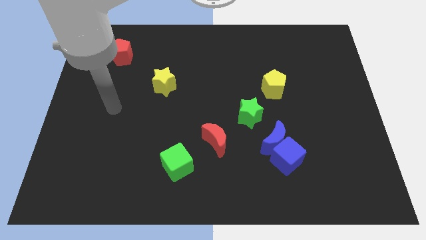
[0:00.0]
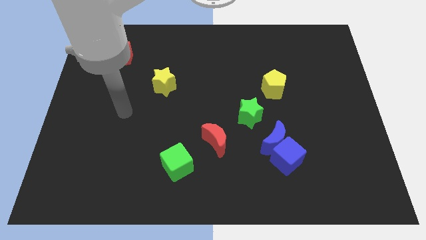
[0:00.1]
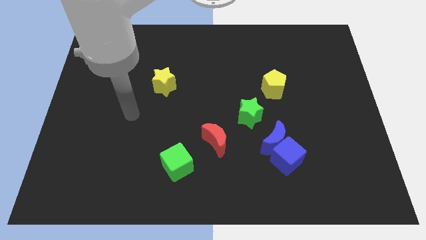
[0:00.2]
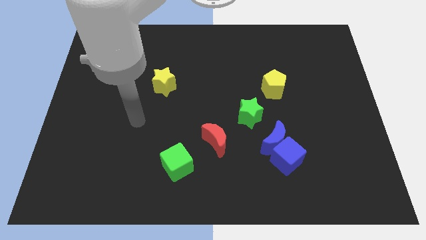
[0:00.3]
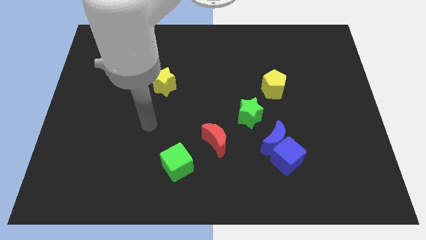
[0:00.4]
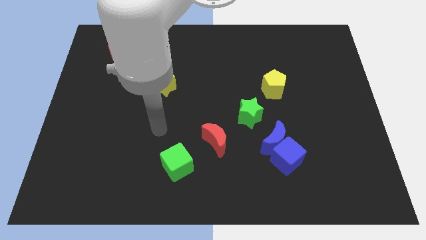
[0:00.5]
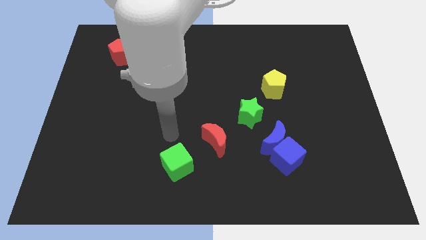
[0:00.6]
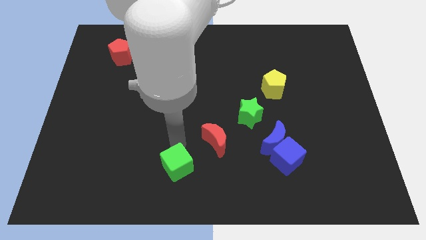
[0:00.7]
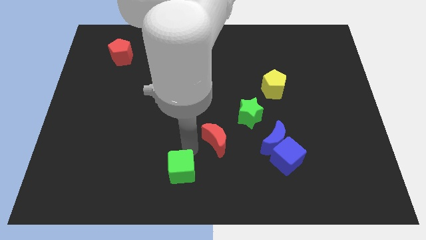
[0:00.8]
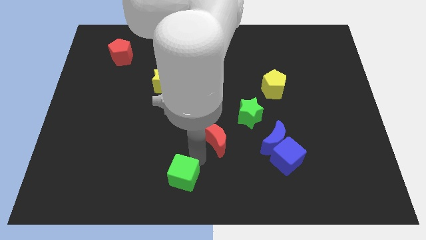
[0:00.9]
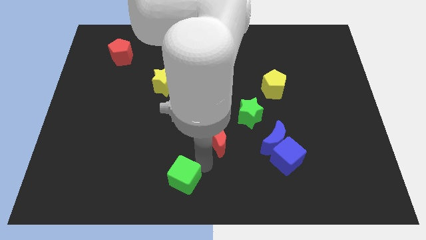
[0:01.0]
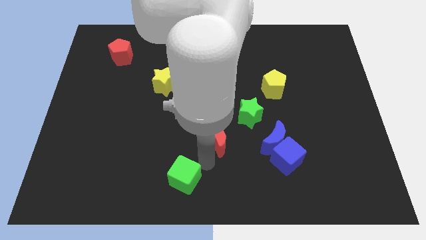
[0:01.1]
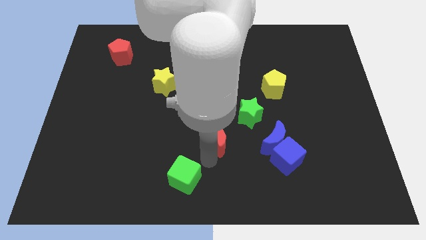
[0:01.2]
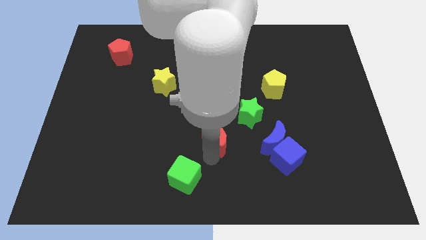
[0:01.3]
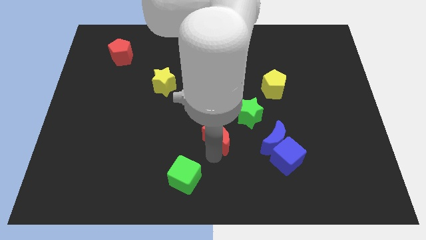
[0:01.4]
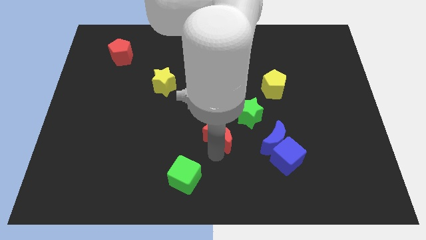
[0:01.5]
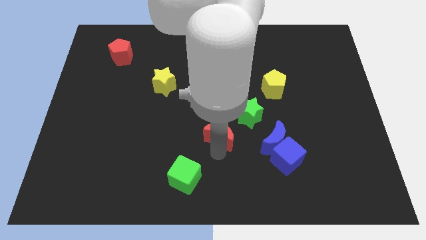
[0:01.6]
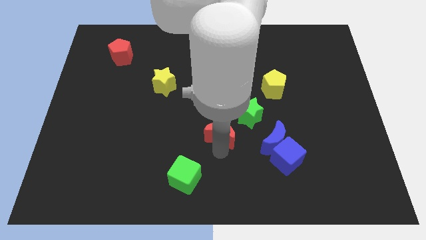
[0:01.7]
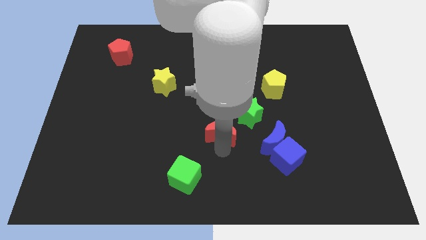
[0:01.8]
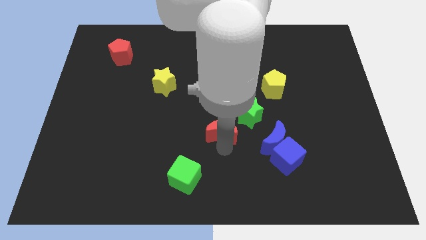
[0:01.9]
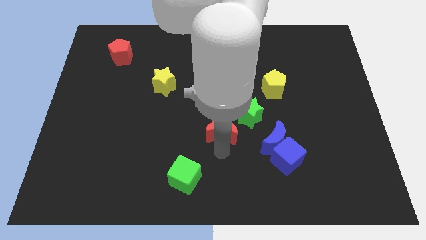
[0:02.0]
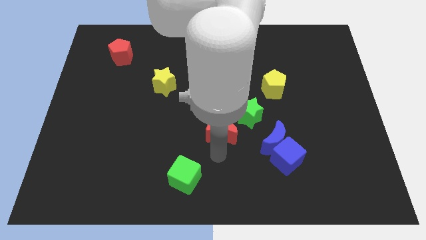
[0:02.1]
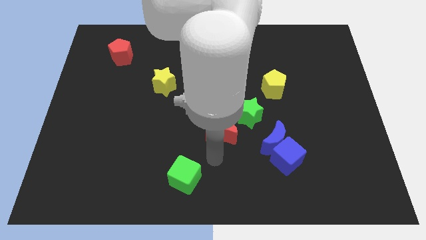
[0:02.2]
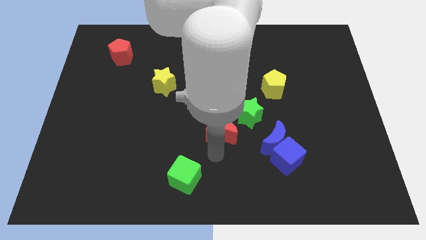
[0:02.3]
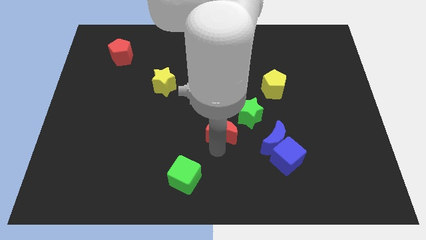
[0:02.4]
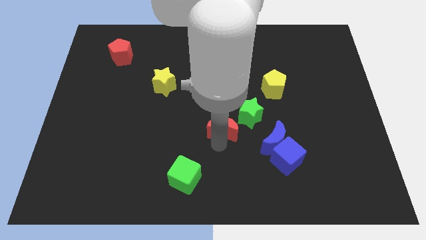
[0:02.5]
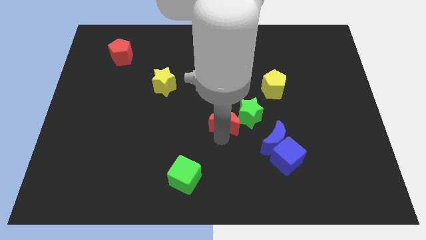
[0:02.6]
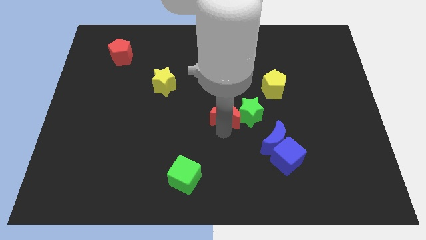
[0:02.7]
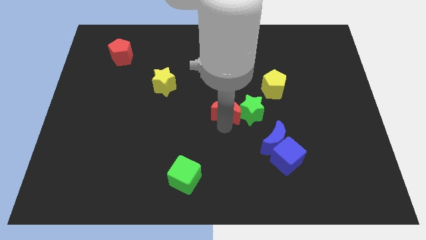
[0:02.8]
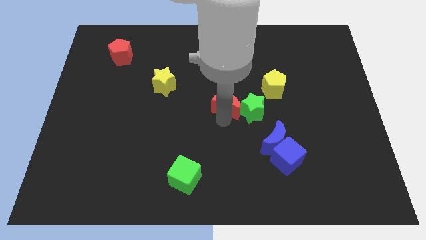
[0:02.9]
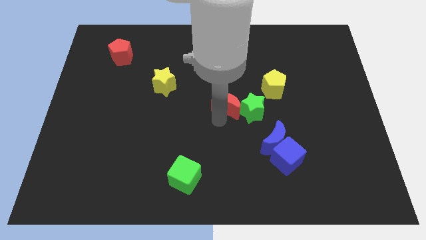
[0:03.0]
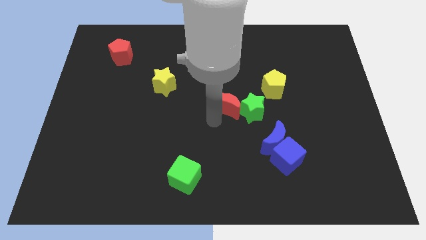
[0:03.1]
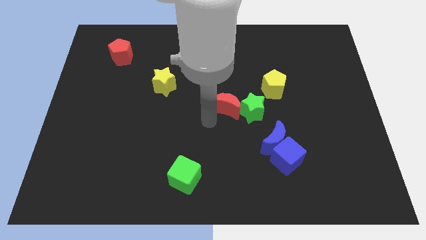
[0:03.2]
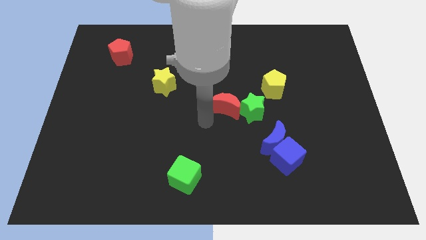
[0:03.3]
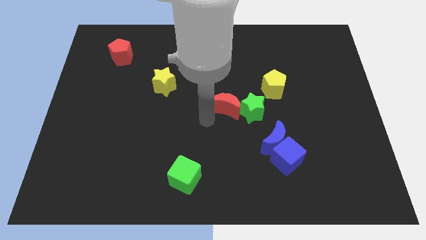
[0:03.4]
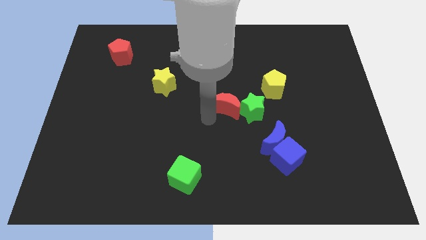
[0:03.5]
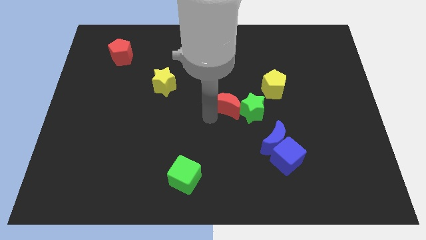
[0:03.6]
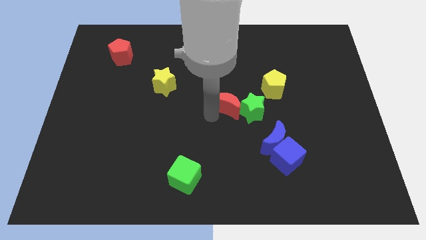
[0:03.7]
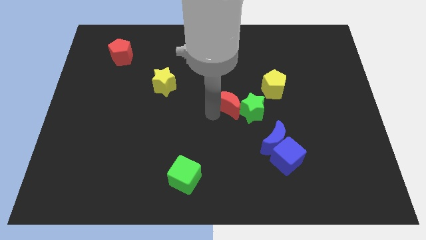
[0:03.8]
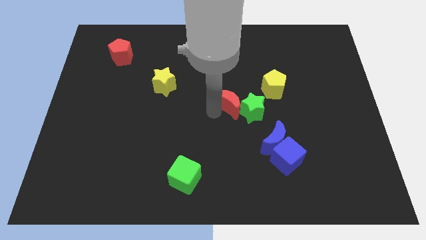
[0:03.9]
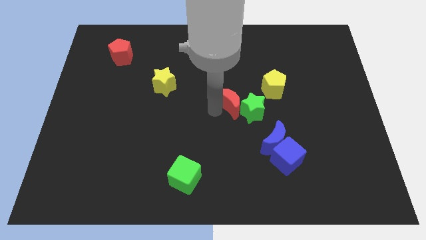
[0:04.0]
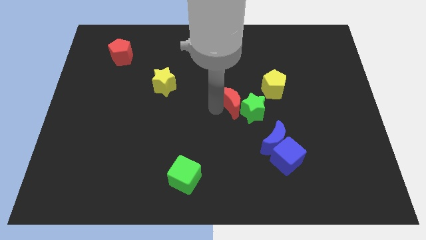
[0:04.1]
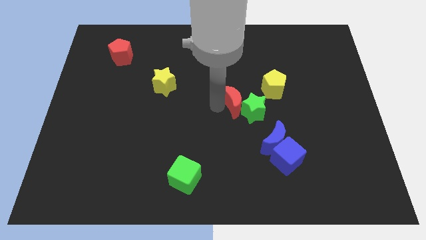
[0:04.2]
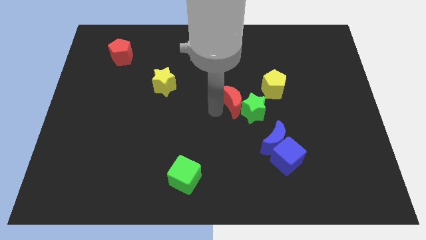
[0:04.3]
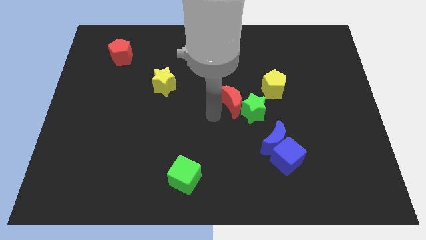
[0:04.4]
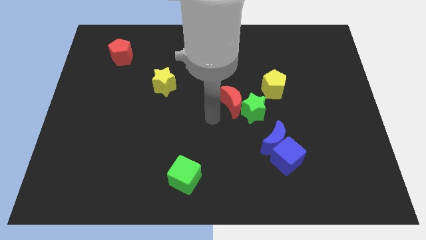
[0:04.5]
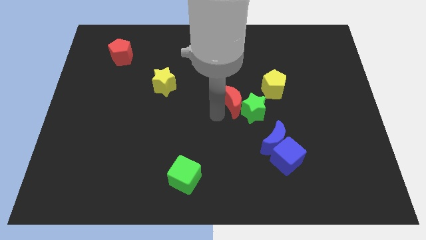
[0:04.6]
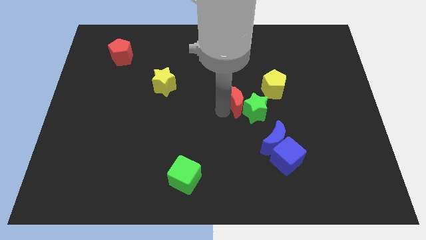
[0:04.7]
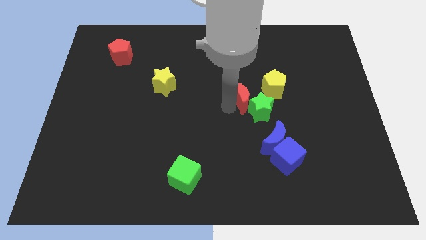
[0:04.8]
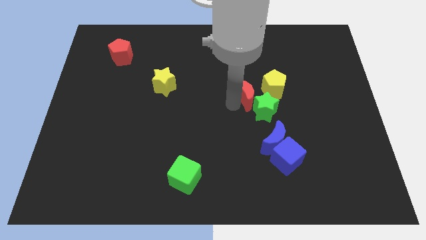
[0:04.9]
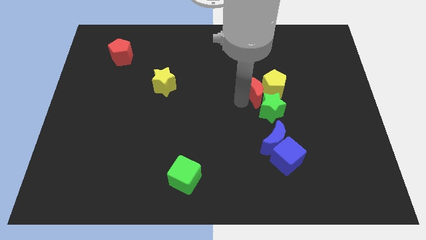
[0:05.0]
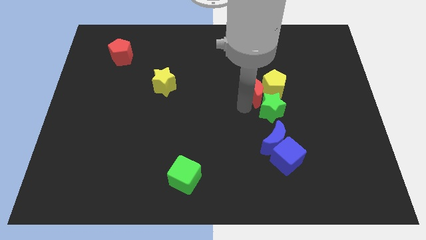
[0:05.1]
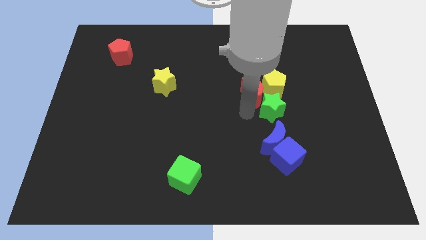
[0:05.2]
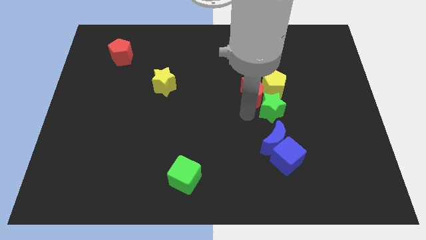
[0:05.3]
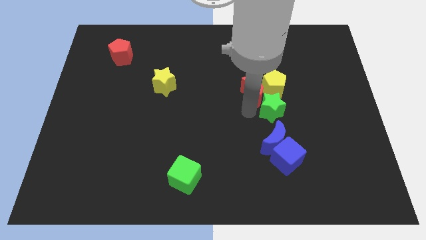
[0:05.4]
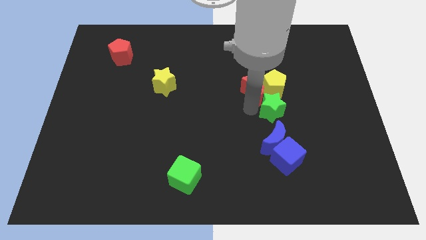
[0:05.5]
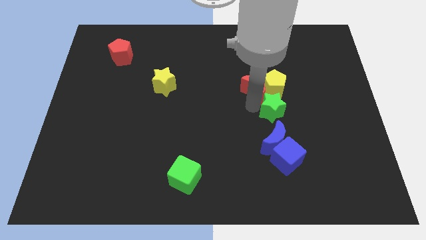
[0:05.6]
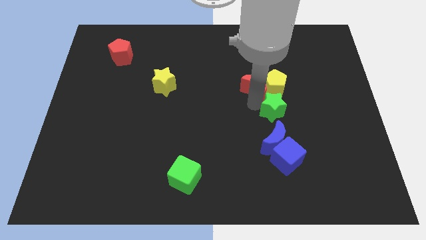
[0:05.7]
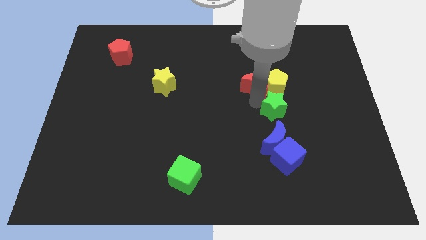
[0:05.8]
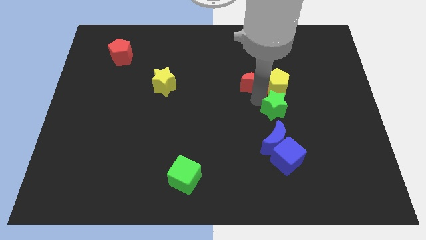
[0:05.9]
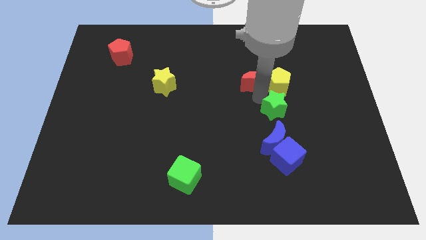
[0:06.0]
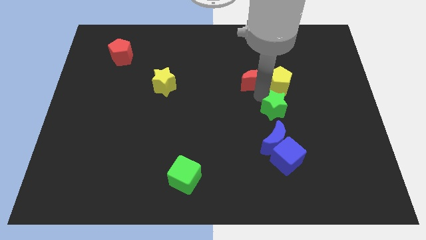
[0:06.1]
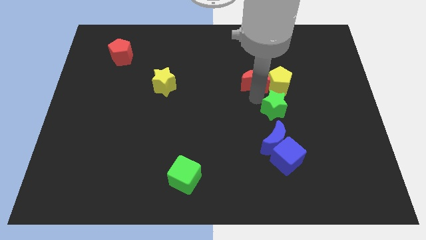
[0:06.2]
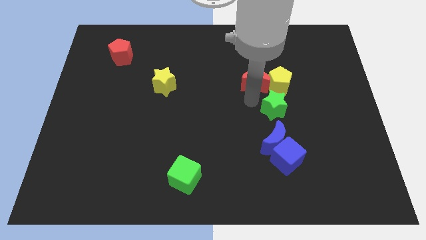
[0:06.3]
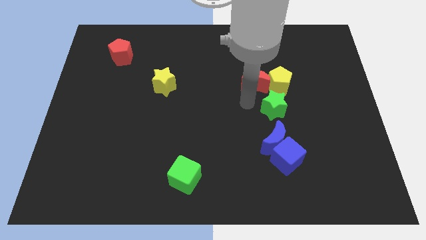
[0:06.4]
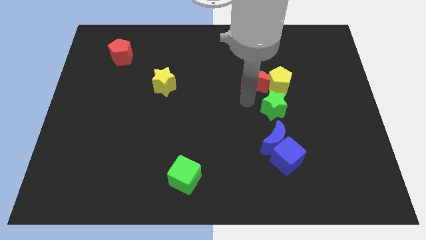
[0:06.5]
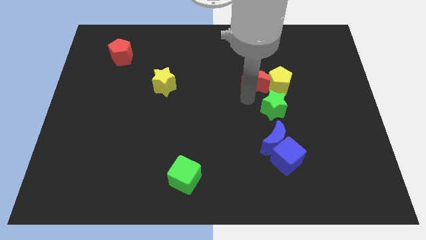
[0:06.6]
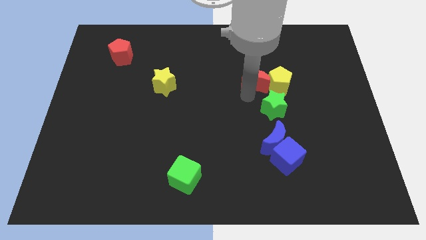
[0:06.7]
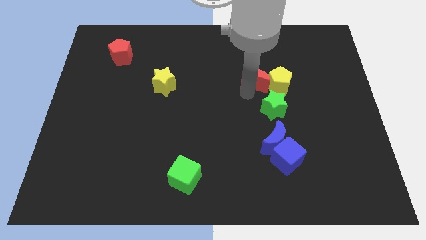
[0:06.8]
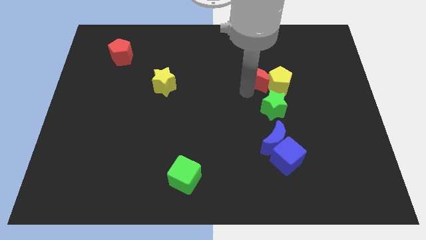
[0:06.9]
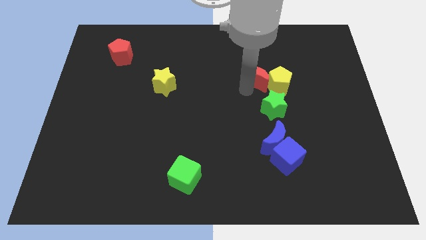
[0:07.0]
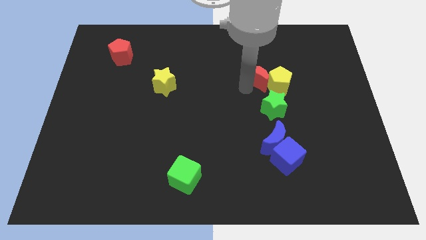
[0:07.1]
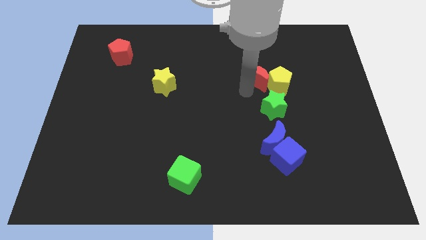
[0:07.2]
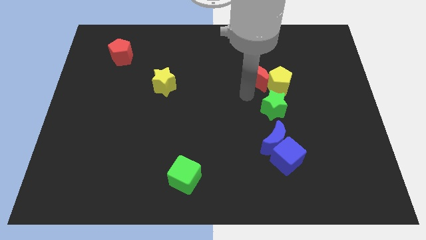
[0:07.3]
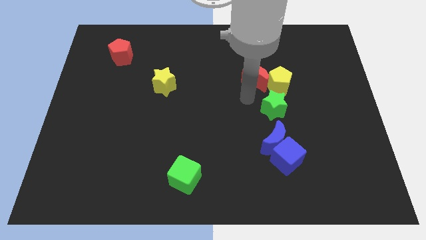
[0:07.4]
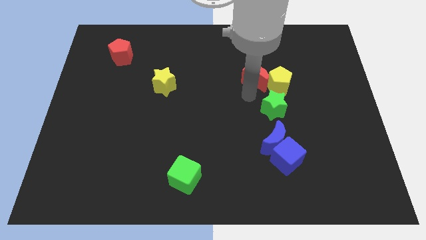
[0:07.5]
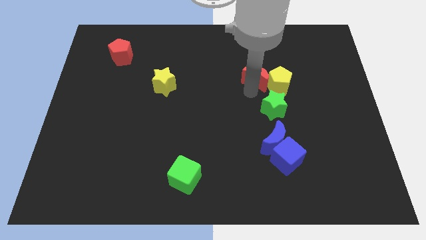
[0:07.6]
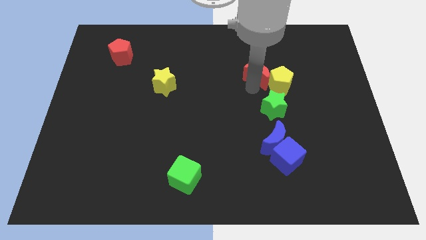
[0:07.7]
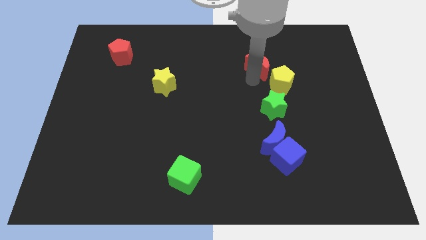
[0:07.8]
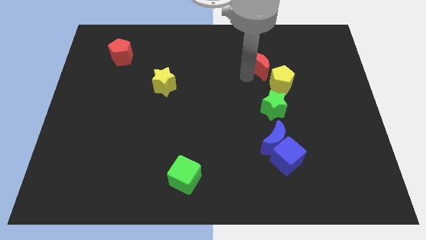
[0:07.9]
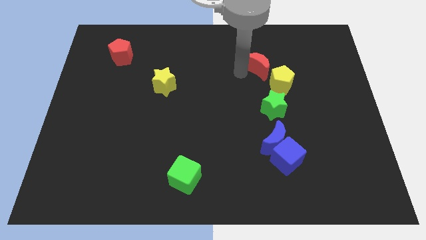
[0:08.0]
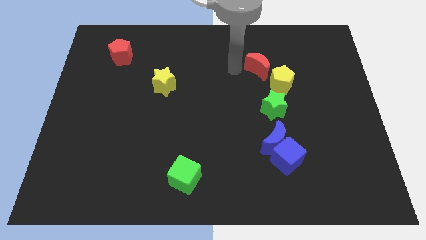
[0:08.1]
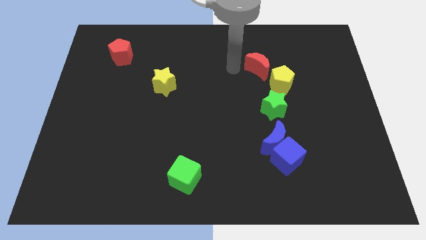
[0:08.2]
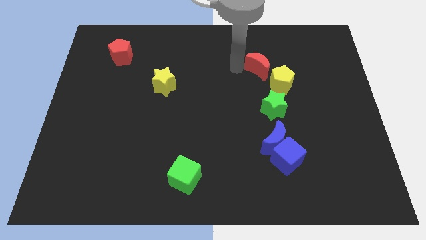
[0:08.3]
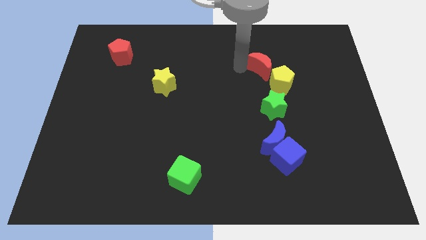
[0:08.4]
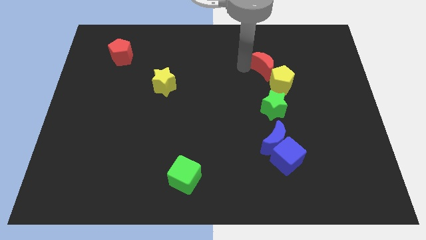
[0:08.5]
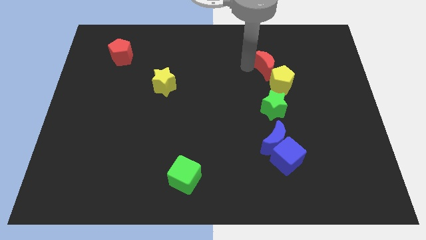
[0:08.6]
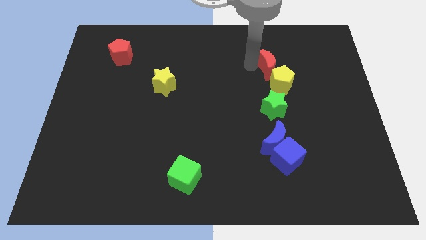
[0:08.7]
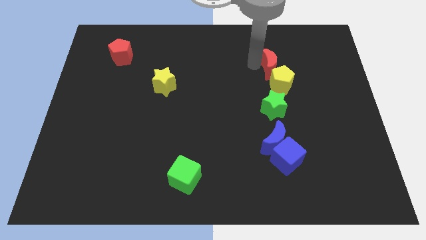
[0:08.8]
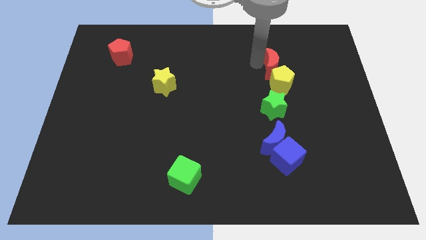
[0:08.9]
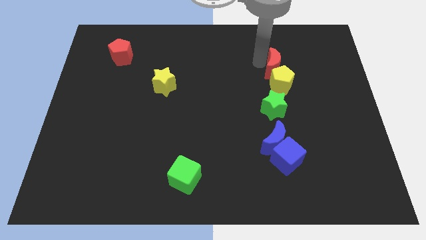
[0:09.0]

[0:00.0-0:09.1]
slide the red moon to the top right side of the yellow pentagon
